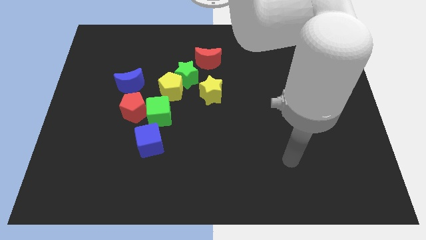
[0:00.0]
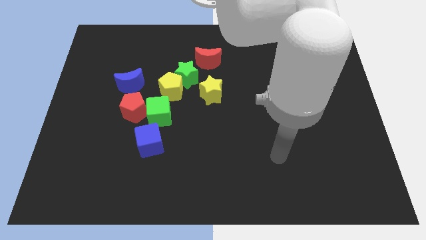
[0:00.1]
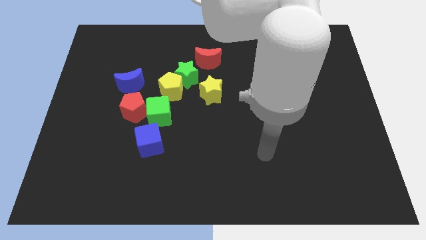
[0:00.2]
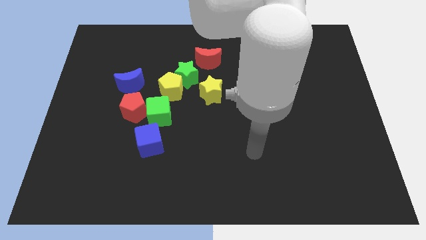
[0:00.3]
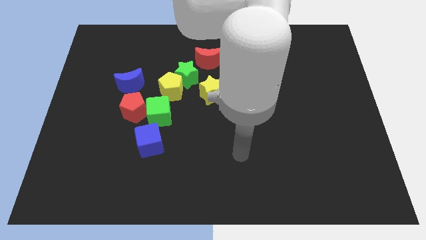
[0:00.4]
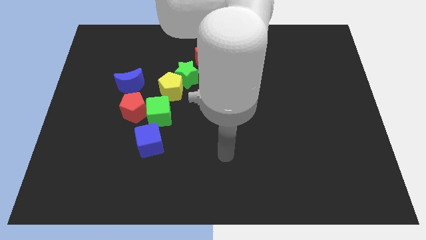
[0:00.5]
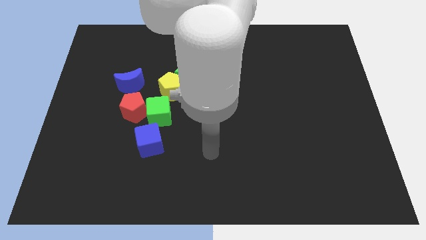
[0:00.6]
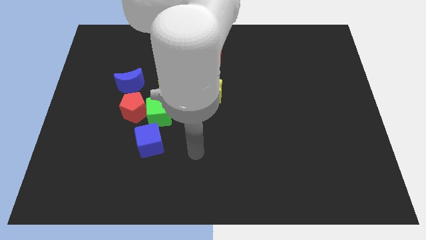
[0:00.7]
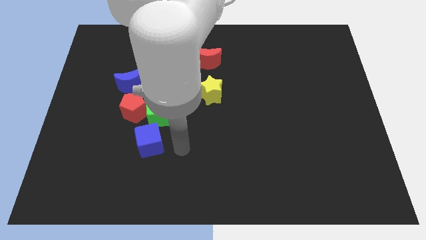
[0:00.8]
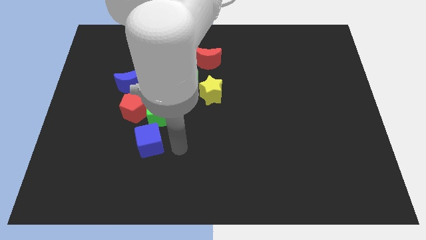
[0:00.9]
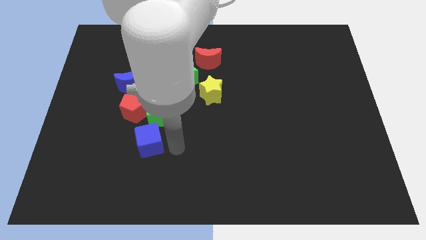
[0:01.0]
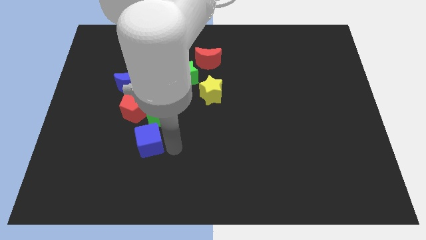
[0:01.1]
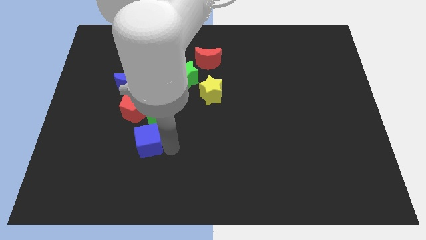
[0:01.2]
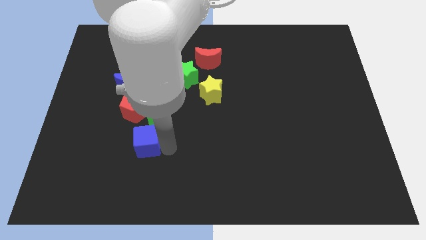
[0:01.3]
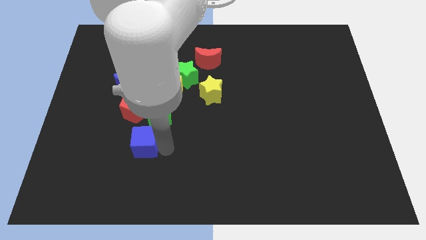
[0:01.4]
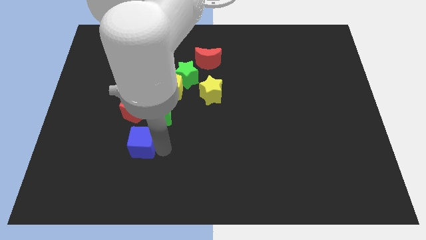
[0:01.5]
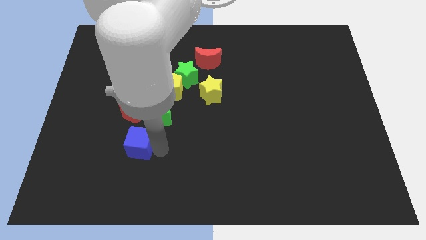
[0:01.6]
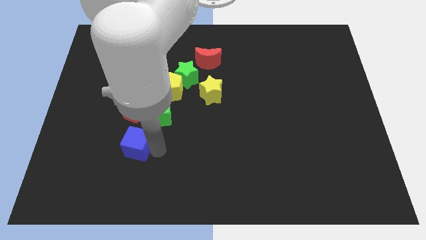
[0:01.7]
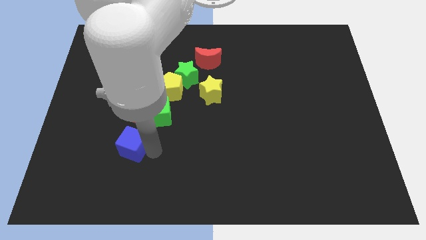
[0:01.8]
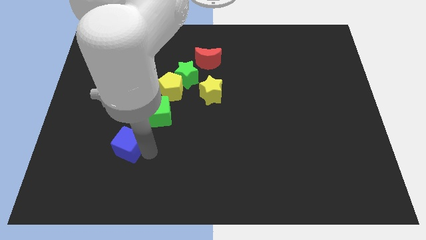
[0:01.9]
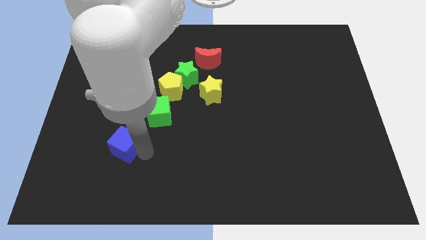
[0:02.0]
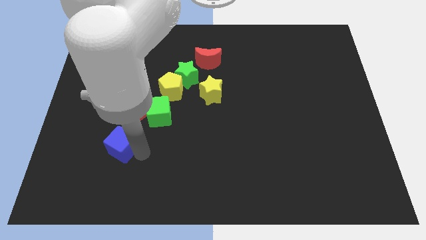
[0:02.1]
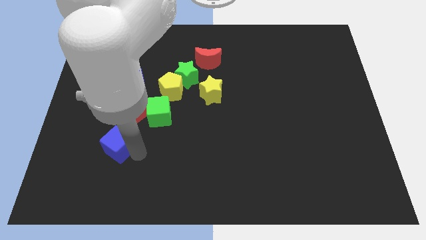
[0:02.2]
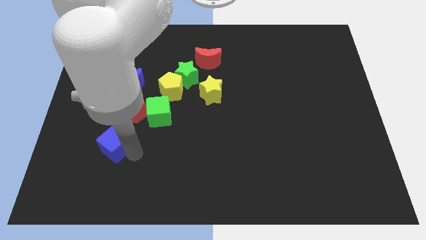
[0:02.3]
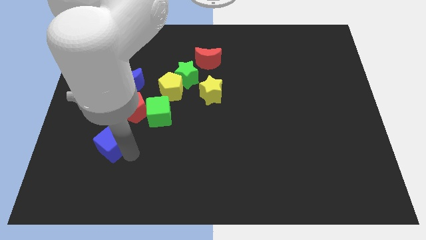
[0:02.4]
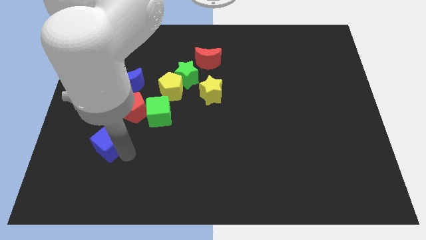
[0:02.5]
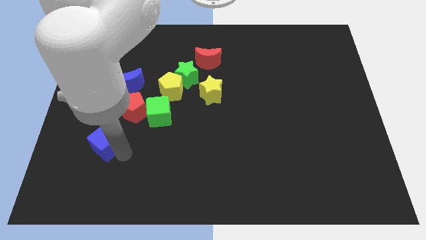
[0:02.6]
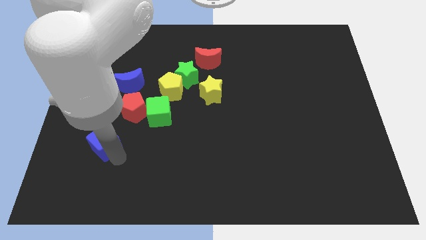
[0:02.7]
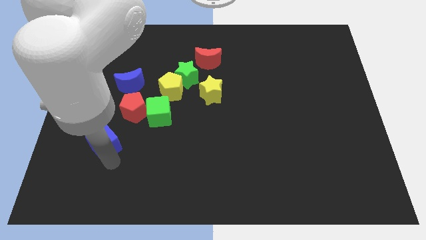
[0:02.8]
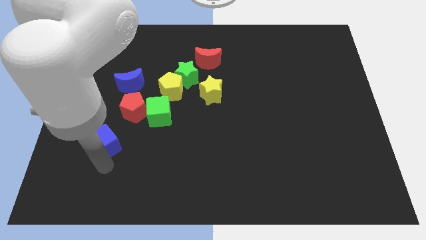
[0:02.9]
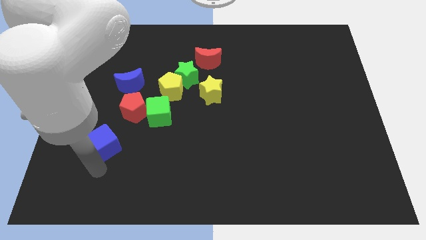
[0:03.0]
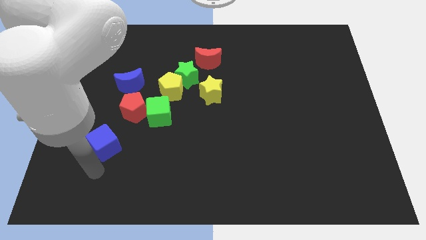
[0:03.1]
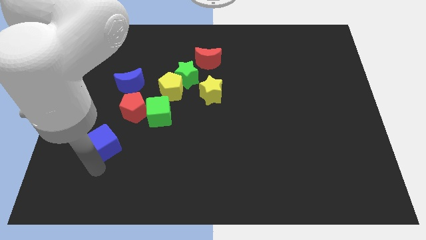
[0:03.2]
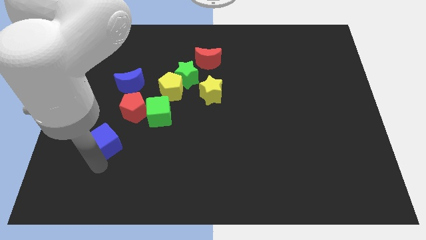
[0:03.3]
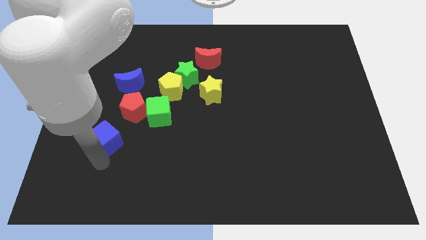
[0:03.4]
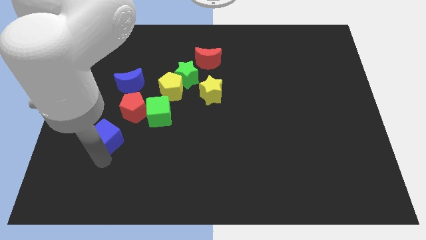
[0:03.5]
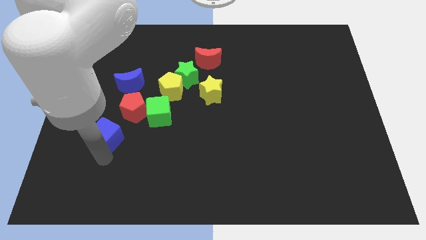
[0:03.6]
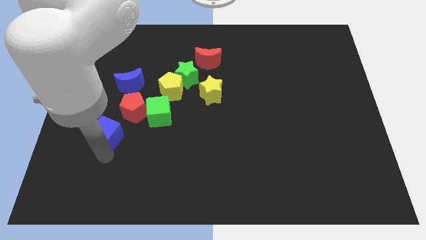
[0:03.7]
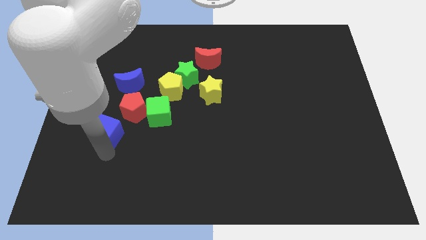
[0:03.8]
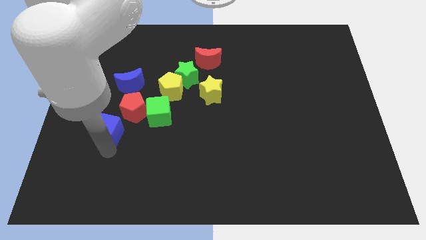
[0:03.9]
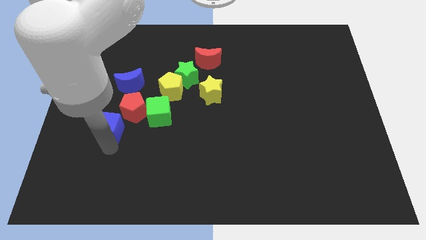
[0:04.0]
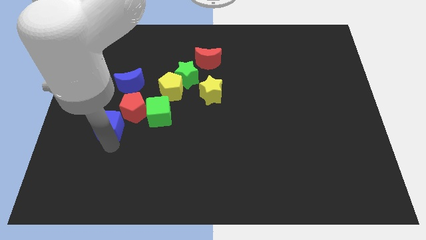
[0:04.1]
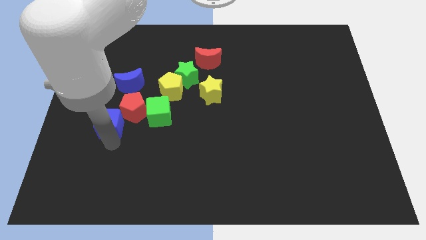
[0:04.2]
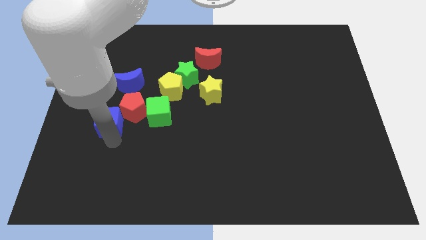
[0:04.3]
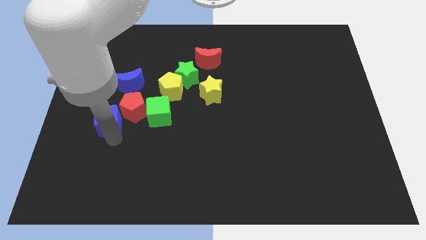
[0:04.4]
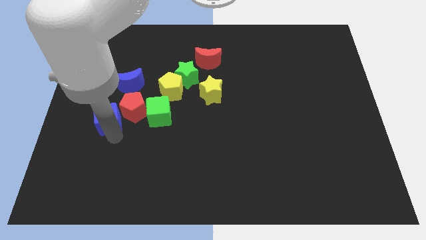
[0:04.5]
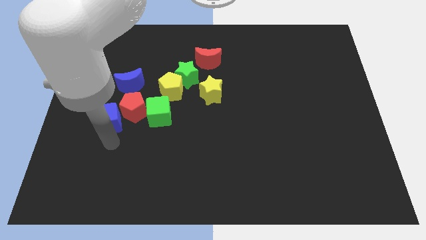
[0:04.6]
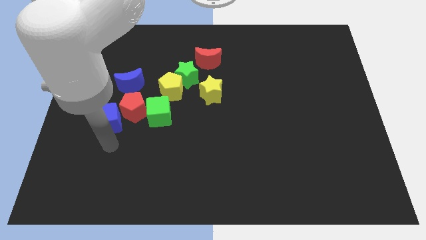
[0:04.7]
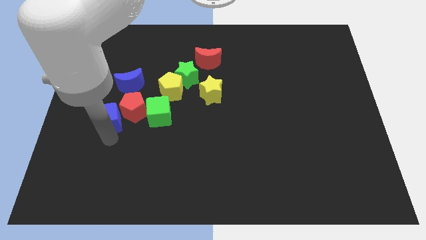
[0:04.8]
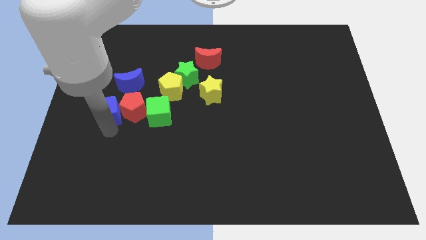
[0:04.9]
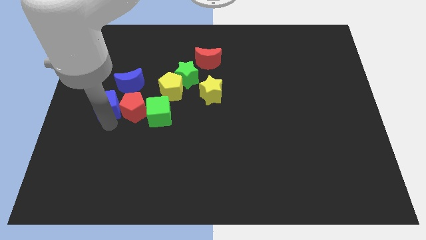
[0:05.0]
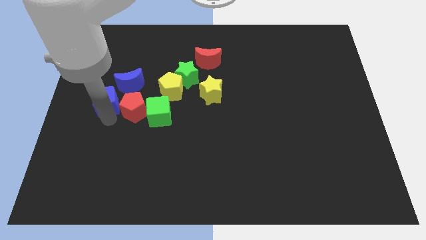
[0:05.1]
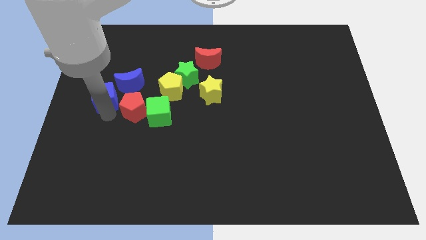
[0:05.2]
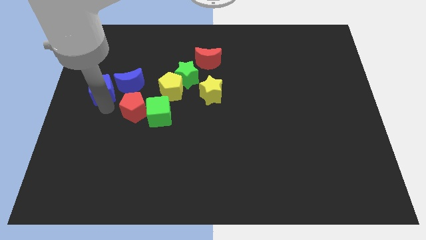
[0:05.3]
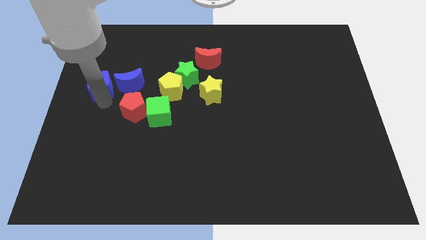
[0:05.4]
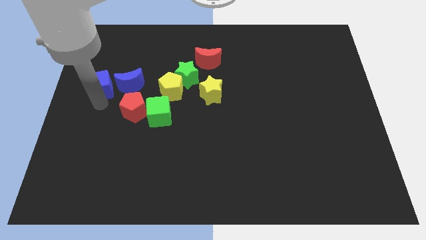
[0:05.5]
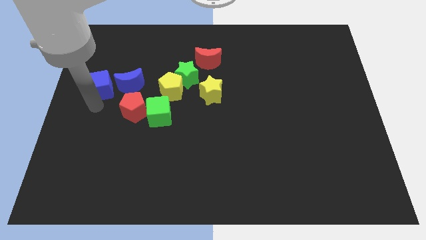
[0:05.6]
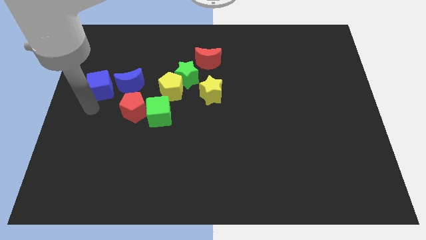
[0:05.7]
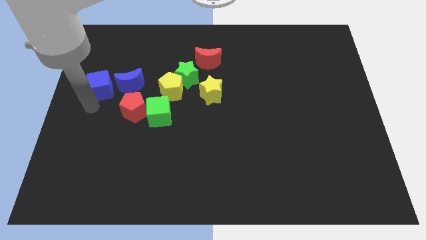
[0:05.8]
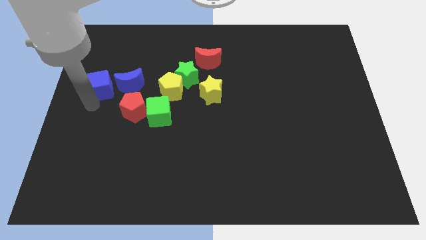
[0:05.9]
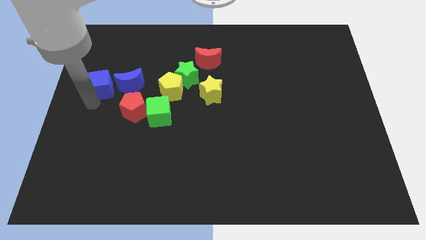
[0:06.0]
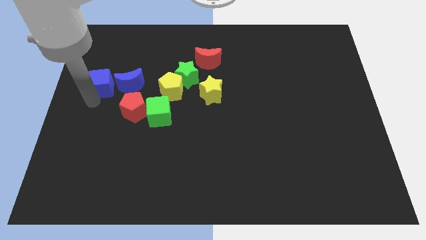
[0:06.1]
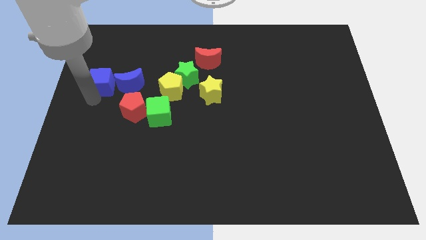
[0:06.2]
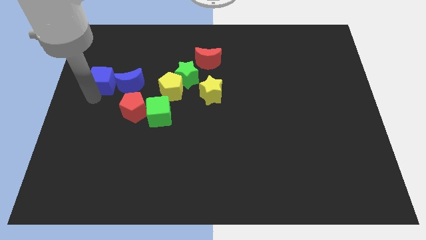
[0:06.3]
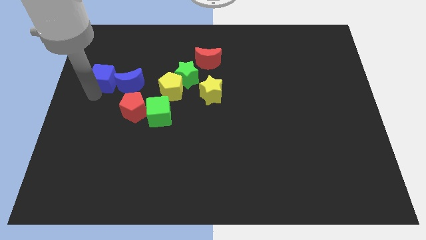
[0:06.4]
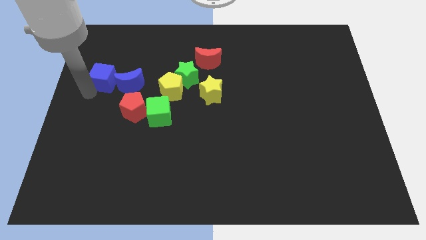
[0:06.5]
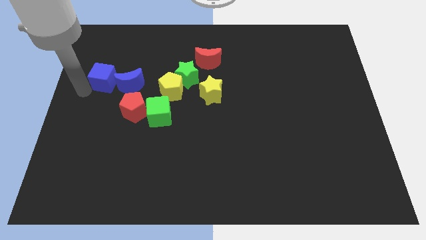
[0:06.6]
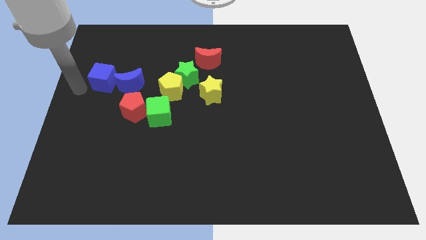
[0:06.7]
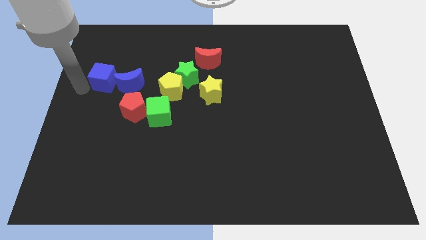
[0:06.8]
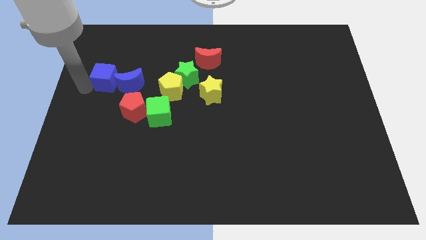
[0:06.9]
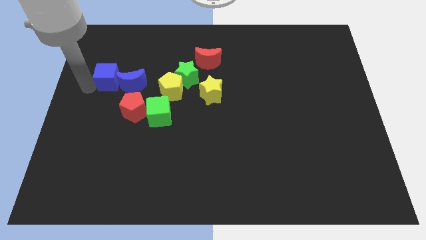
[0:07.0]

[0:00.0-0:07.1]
slightly slide the blue cube upwards

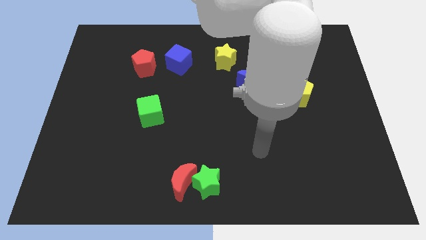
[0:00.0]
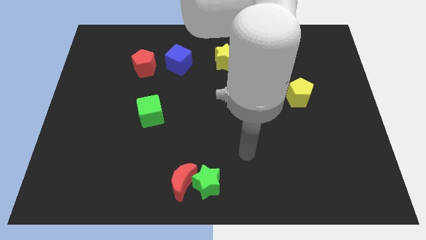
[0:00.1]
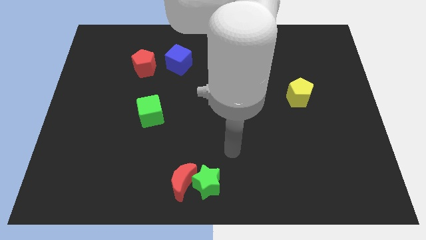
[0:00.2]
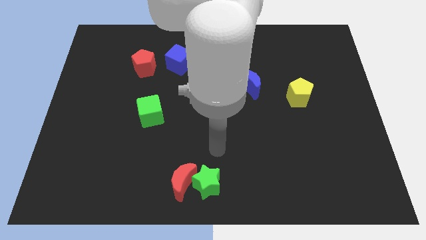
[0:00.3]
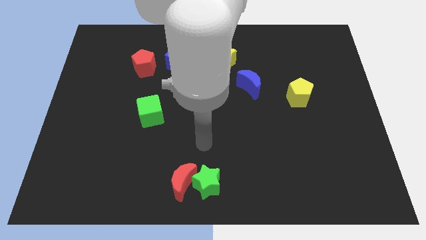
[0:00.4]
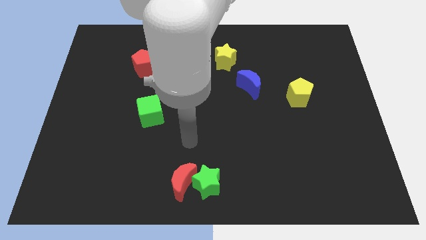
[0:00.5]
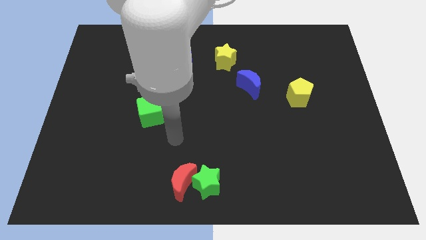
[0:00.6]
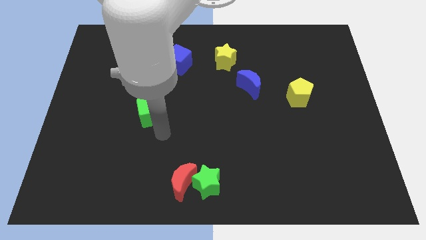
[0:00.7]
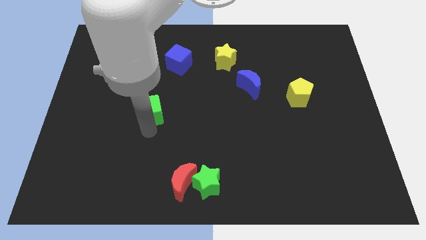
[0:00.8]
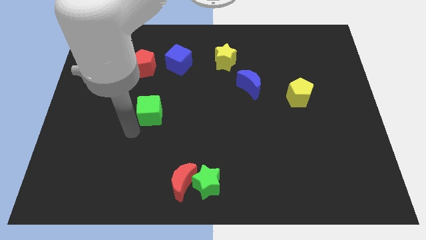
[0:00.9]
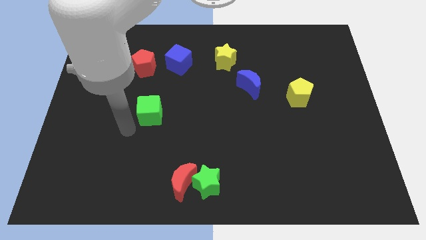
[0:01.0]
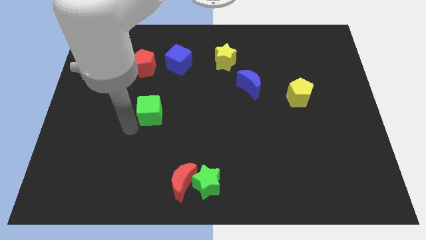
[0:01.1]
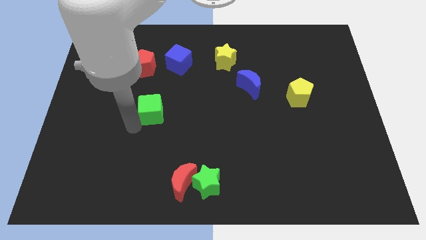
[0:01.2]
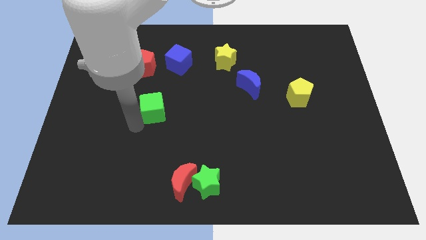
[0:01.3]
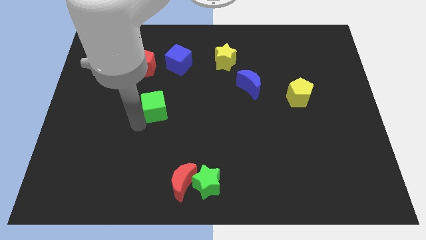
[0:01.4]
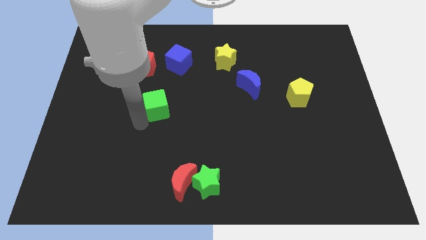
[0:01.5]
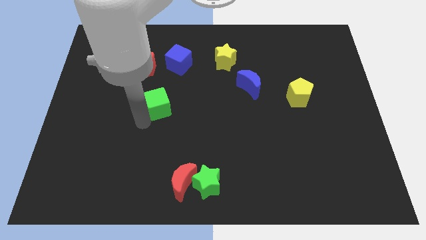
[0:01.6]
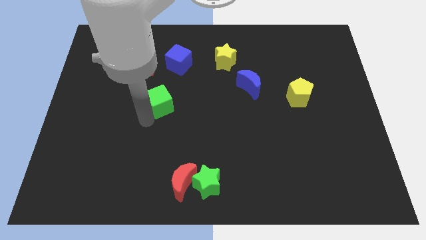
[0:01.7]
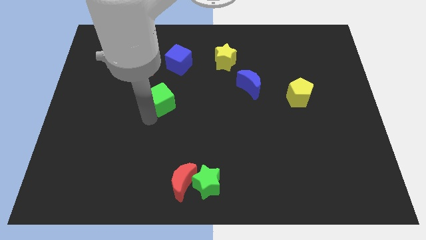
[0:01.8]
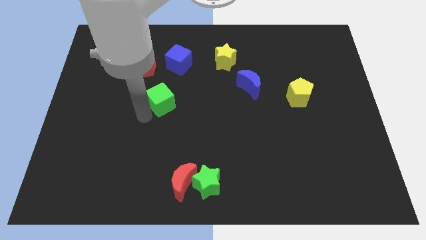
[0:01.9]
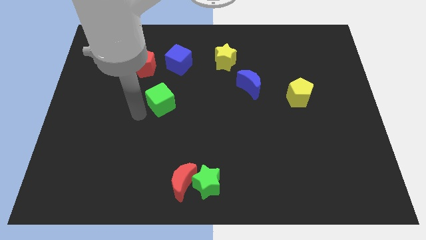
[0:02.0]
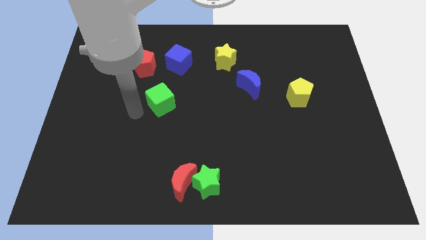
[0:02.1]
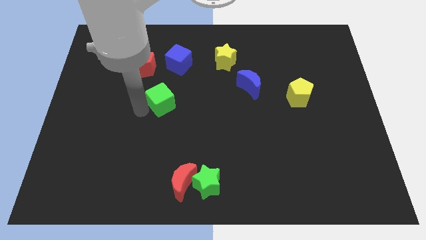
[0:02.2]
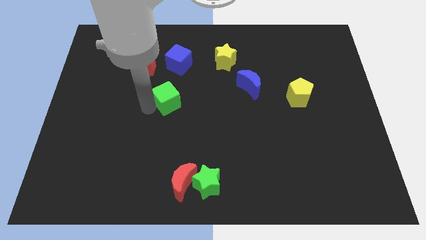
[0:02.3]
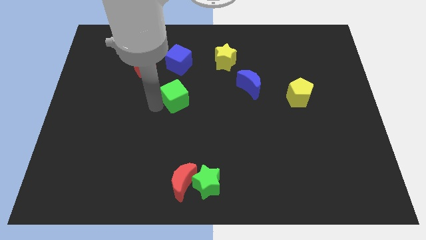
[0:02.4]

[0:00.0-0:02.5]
slightly move the green cube up and then to the right
